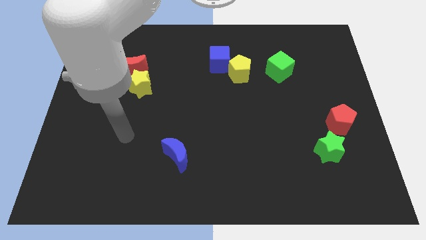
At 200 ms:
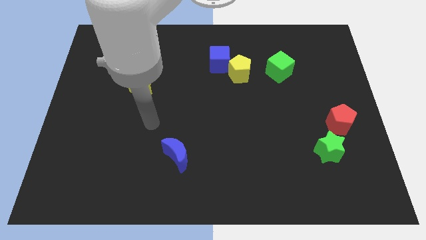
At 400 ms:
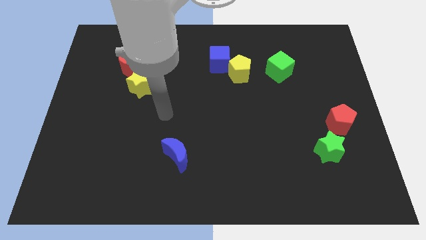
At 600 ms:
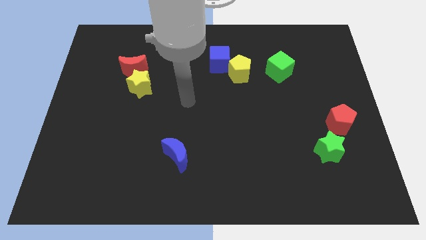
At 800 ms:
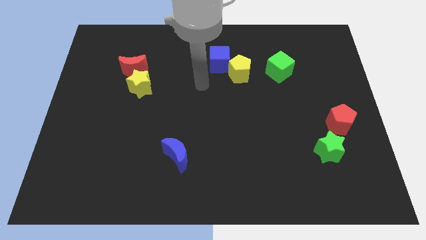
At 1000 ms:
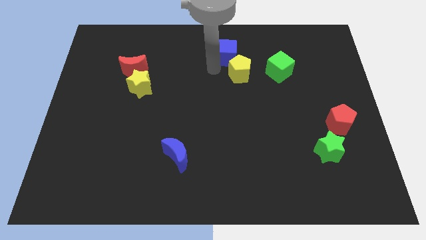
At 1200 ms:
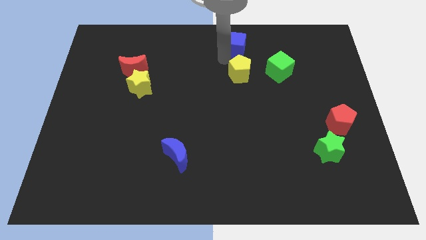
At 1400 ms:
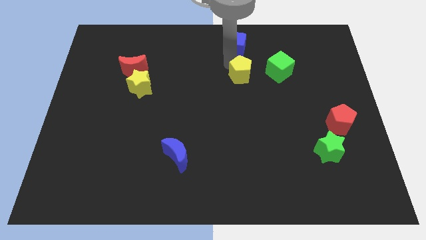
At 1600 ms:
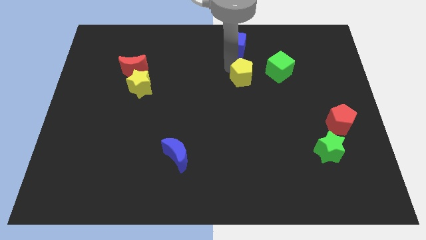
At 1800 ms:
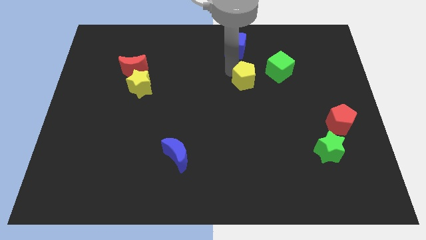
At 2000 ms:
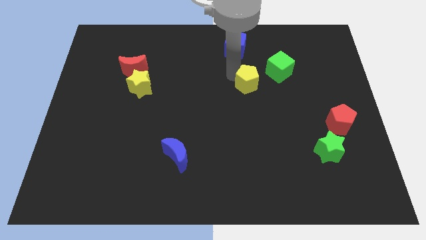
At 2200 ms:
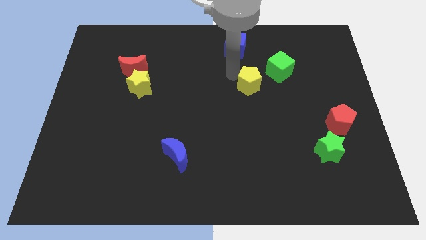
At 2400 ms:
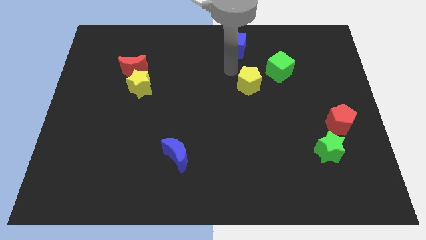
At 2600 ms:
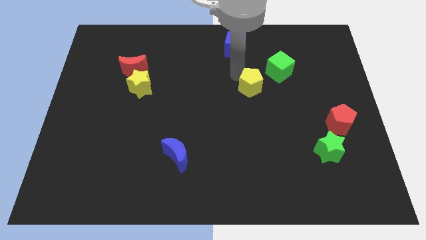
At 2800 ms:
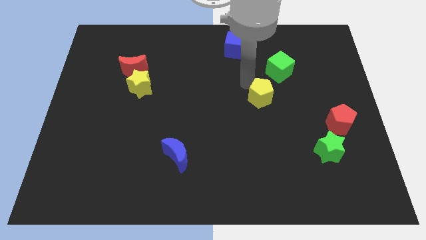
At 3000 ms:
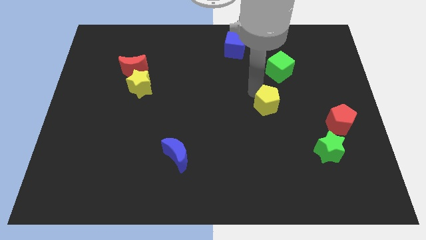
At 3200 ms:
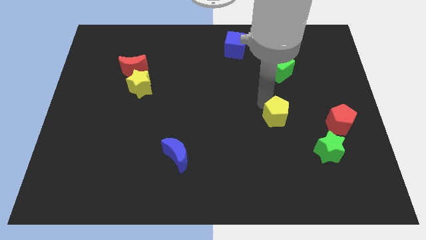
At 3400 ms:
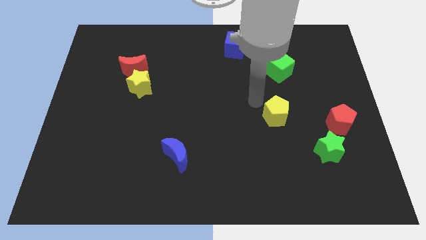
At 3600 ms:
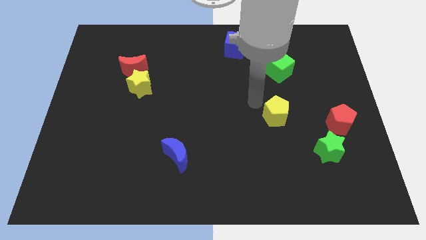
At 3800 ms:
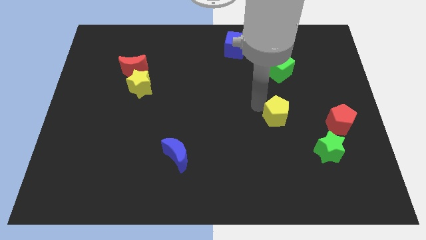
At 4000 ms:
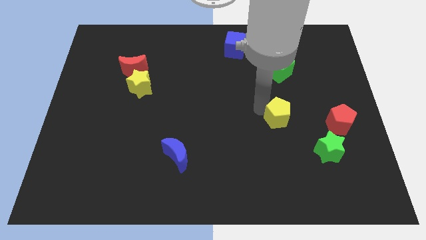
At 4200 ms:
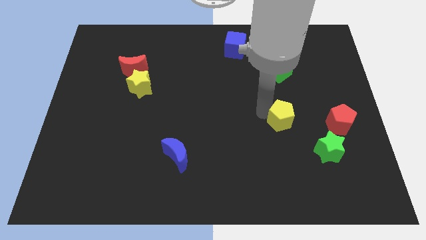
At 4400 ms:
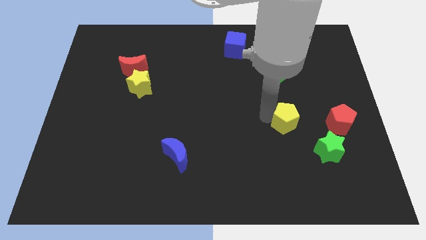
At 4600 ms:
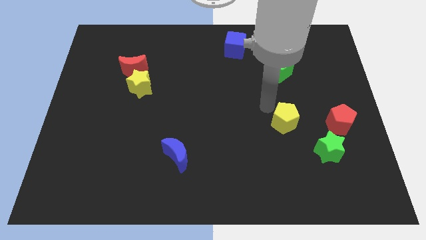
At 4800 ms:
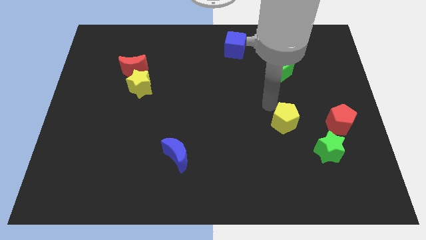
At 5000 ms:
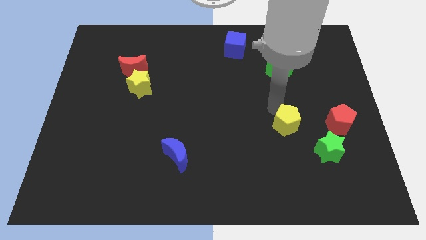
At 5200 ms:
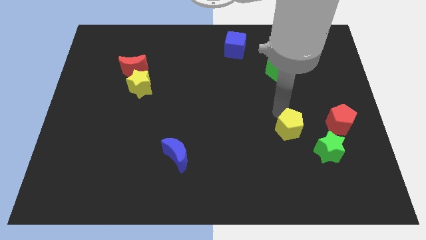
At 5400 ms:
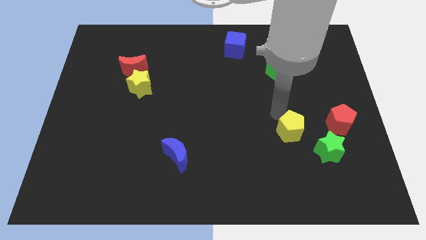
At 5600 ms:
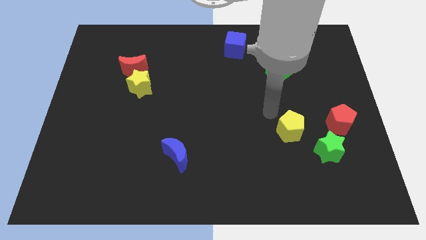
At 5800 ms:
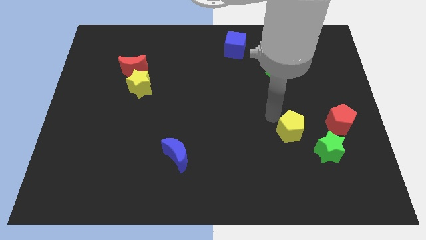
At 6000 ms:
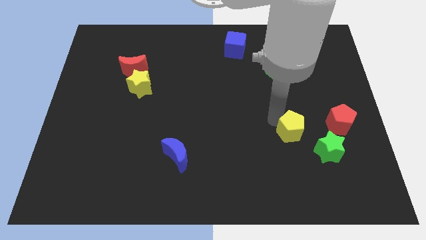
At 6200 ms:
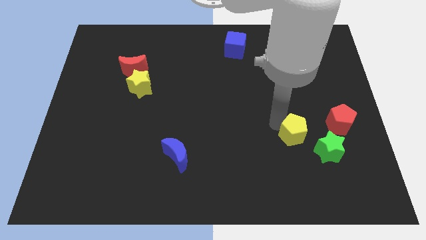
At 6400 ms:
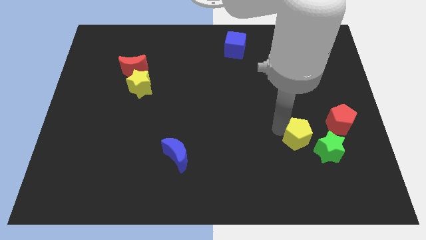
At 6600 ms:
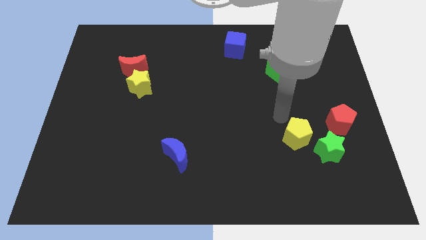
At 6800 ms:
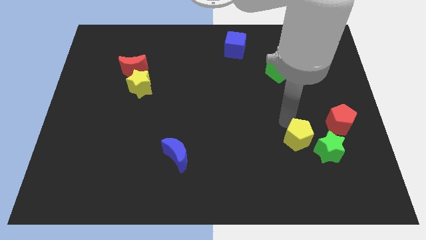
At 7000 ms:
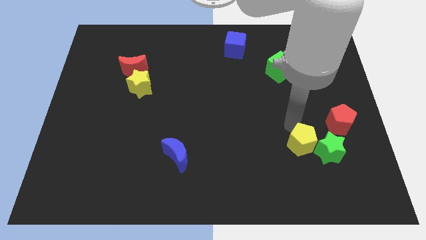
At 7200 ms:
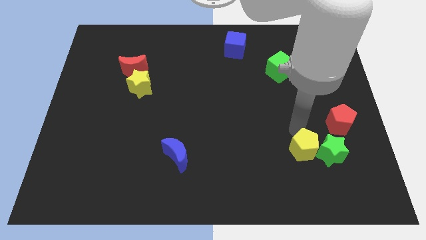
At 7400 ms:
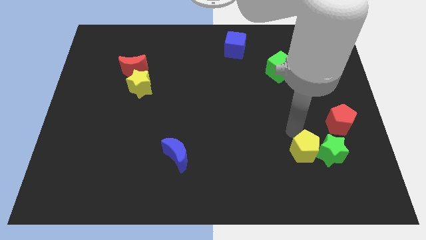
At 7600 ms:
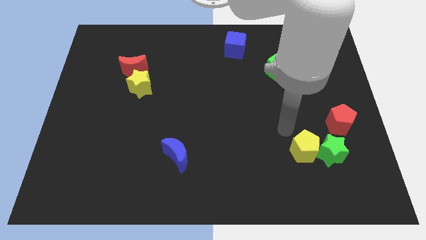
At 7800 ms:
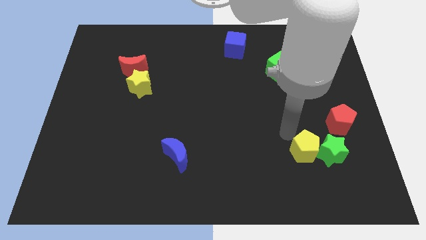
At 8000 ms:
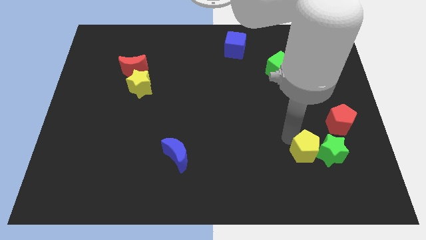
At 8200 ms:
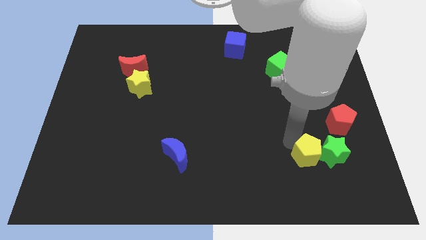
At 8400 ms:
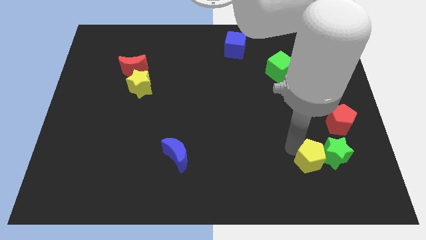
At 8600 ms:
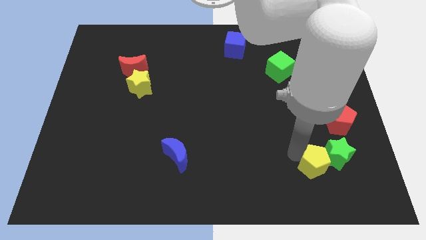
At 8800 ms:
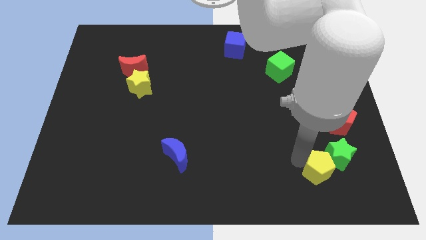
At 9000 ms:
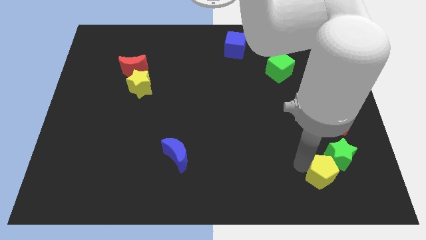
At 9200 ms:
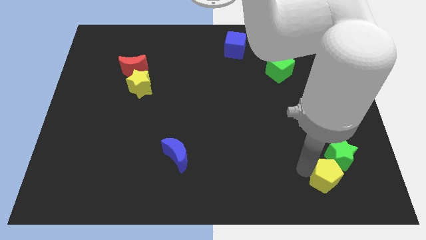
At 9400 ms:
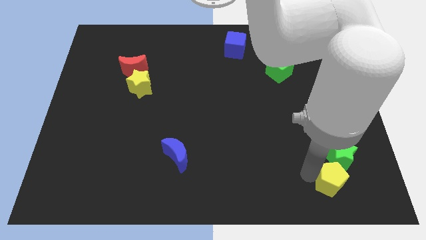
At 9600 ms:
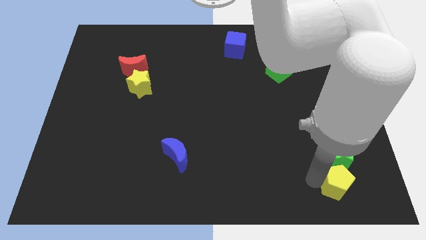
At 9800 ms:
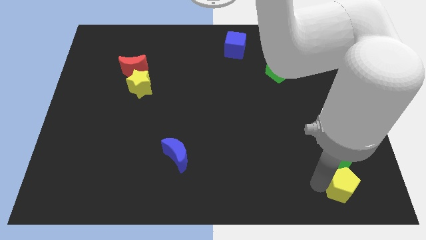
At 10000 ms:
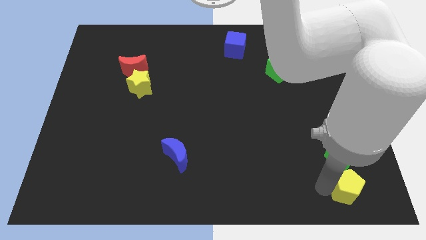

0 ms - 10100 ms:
slide the yellow pentagon to the bottom right corner

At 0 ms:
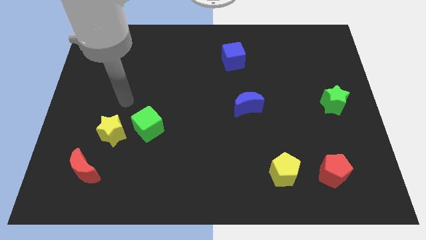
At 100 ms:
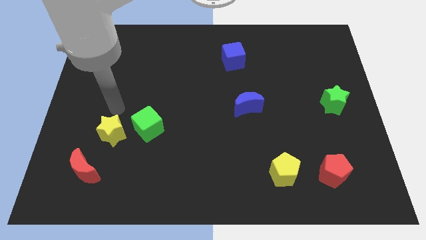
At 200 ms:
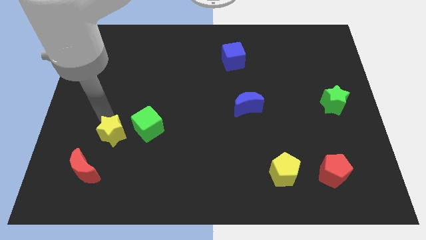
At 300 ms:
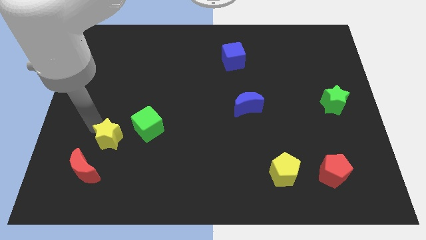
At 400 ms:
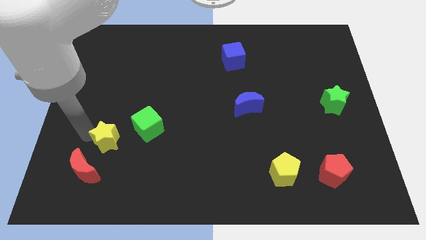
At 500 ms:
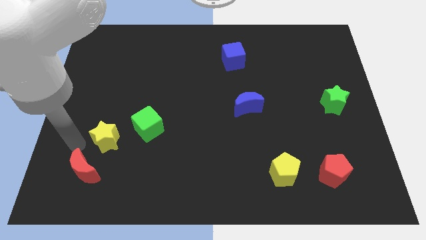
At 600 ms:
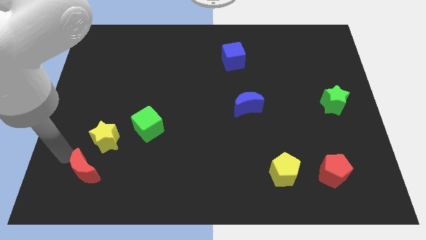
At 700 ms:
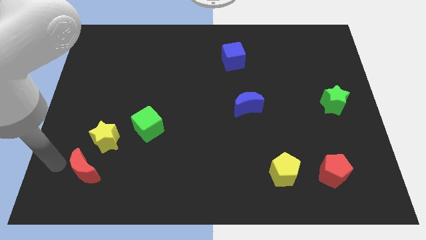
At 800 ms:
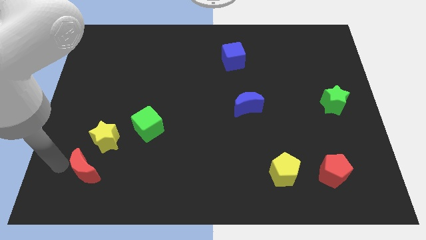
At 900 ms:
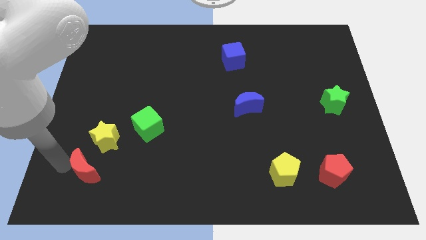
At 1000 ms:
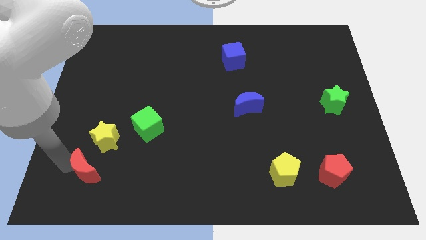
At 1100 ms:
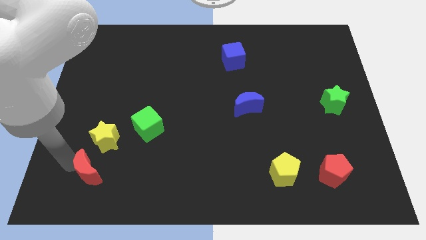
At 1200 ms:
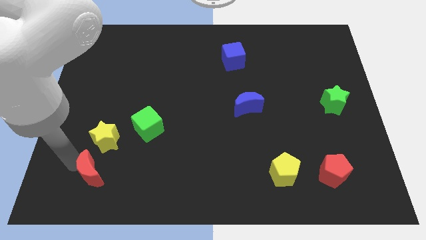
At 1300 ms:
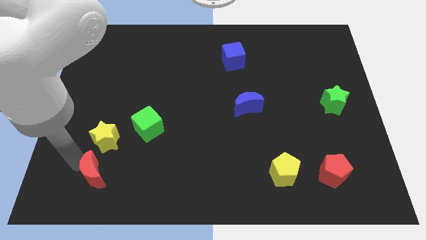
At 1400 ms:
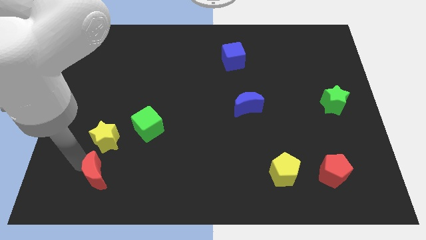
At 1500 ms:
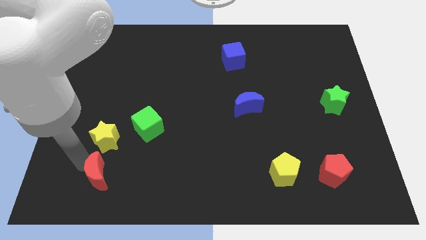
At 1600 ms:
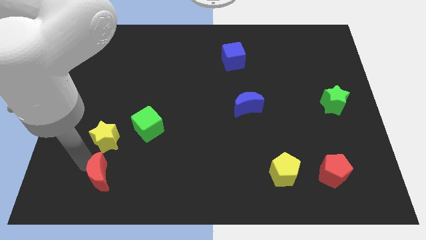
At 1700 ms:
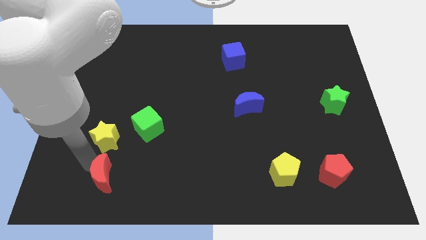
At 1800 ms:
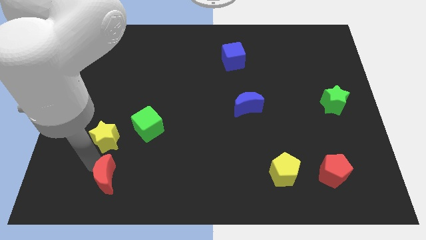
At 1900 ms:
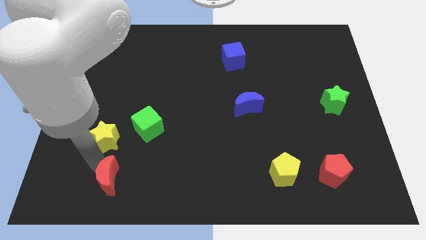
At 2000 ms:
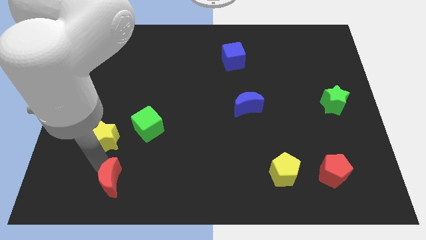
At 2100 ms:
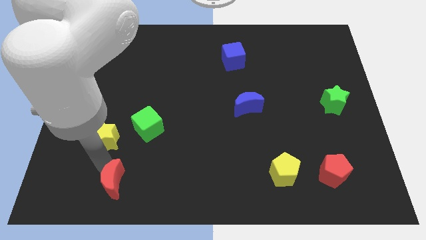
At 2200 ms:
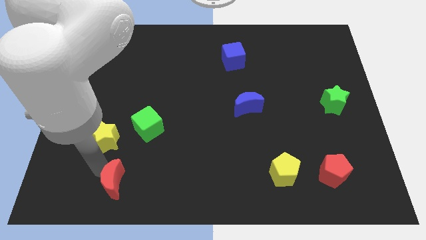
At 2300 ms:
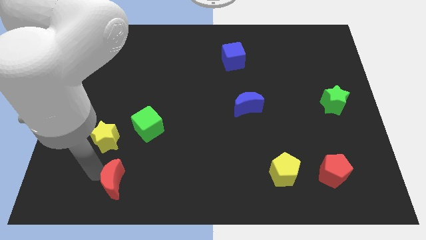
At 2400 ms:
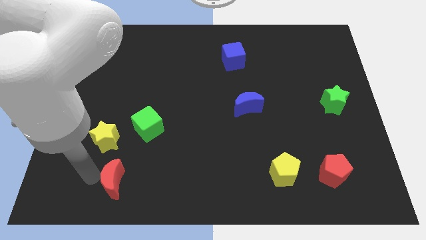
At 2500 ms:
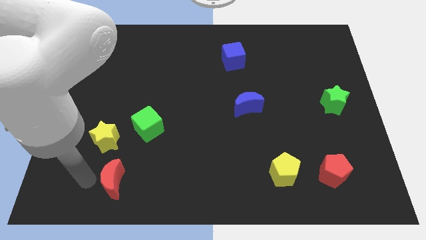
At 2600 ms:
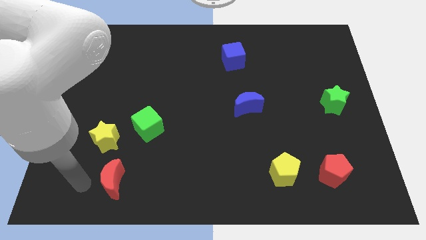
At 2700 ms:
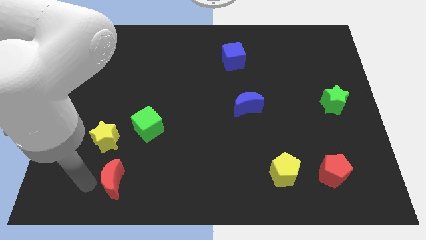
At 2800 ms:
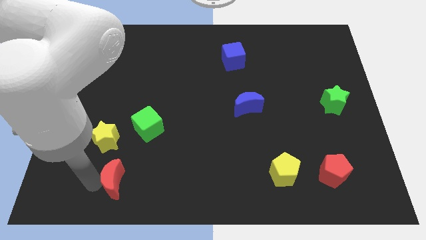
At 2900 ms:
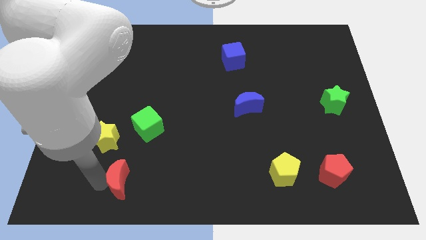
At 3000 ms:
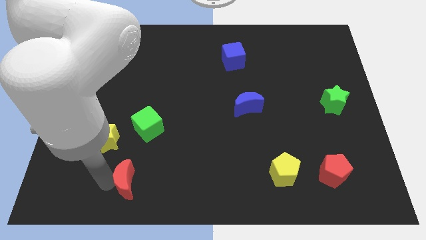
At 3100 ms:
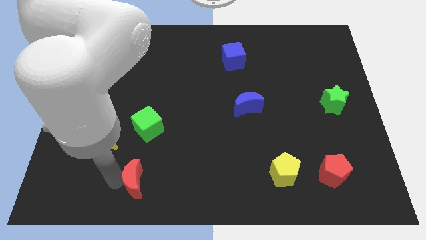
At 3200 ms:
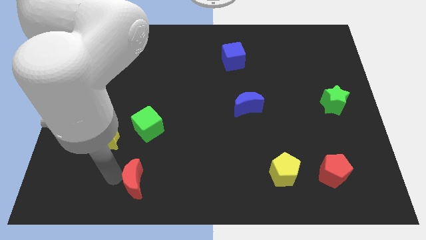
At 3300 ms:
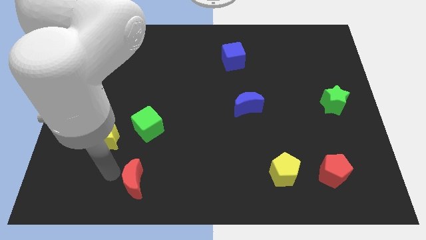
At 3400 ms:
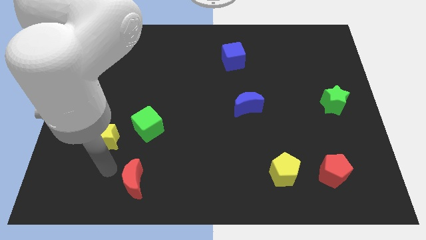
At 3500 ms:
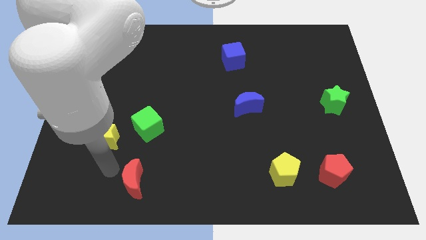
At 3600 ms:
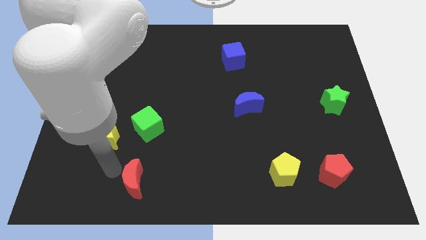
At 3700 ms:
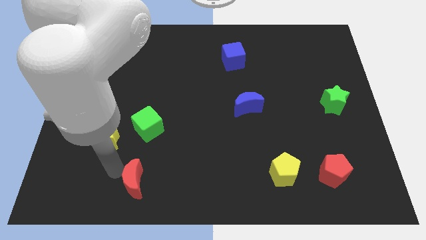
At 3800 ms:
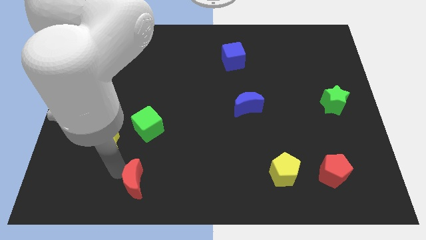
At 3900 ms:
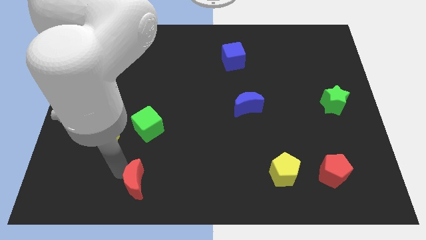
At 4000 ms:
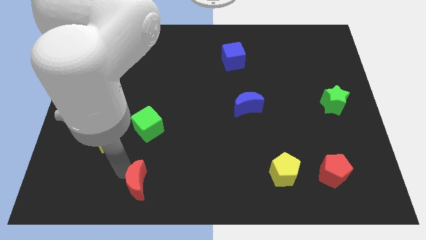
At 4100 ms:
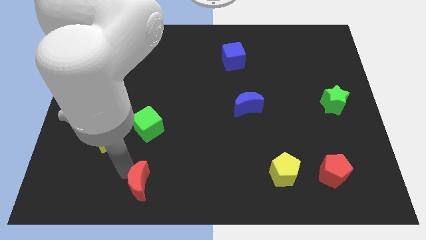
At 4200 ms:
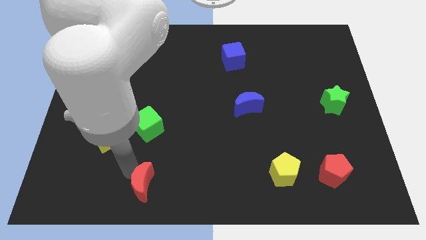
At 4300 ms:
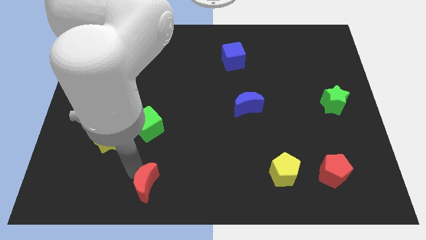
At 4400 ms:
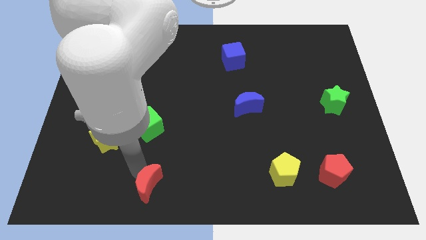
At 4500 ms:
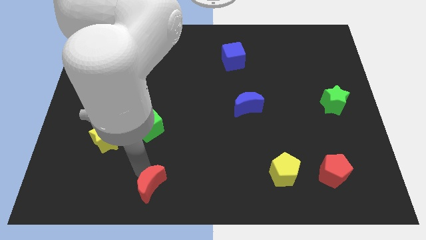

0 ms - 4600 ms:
push the red moon to the bottom
